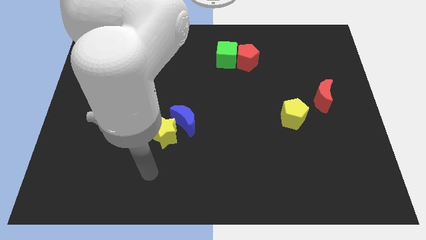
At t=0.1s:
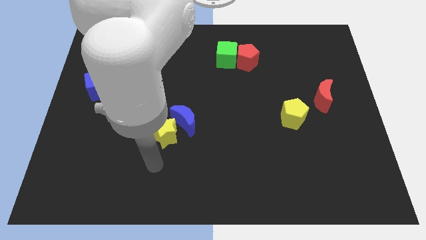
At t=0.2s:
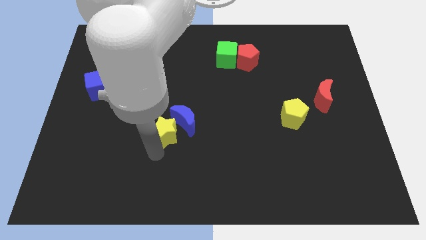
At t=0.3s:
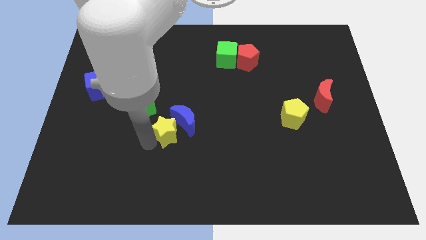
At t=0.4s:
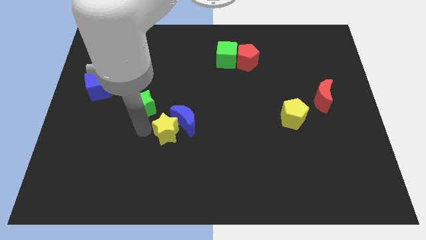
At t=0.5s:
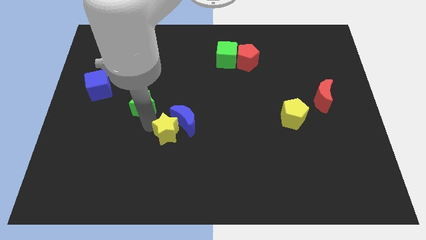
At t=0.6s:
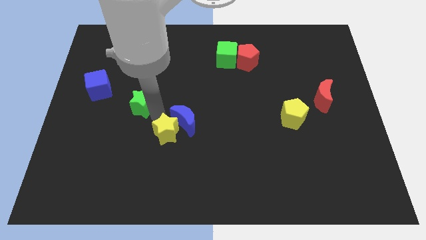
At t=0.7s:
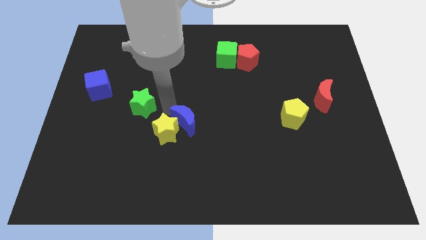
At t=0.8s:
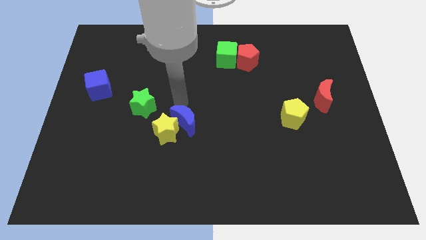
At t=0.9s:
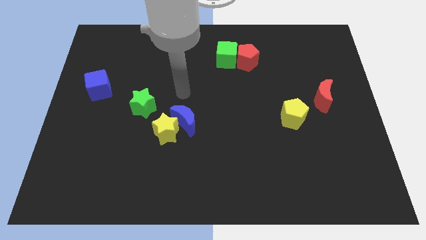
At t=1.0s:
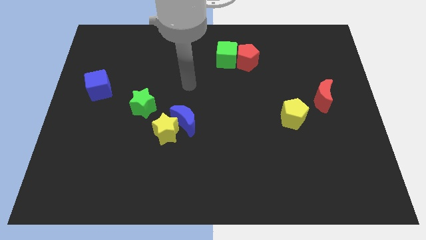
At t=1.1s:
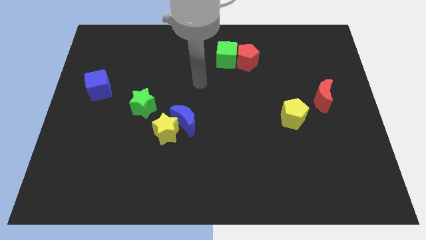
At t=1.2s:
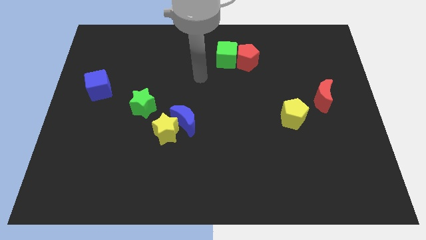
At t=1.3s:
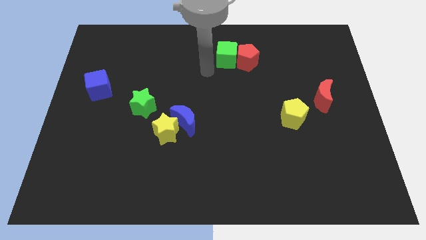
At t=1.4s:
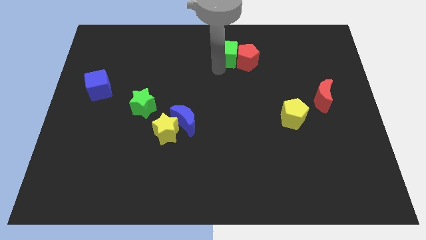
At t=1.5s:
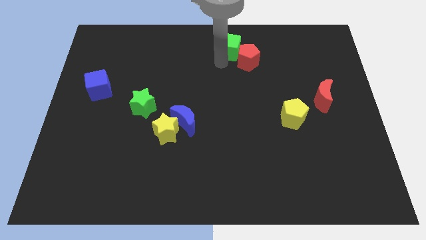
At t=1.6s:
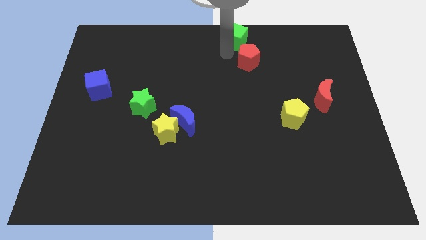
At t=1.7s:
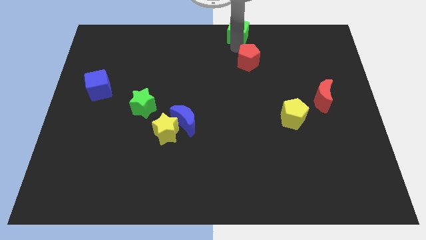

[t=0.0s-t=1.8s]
separate the red pentagon from the green cube

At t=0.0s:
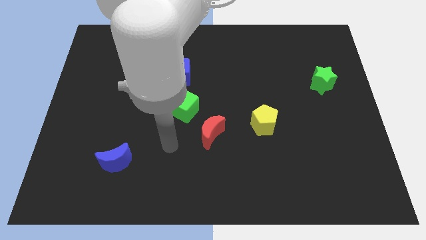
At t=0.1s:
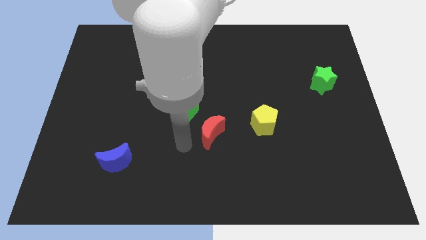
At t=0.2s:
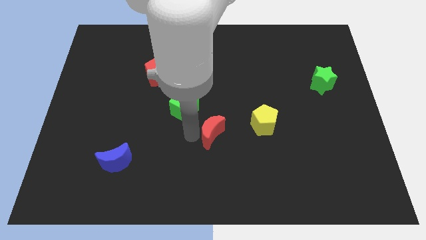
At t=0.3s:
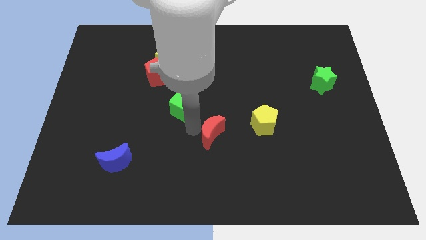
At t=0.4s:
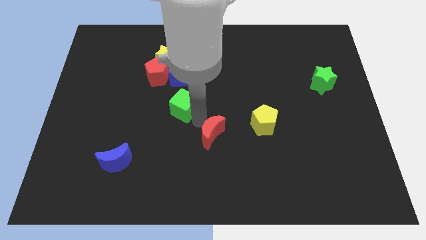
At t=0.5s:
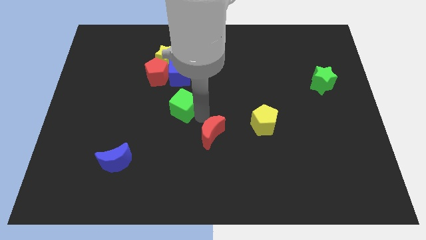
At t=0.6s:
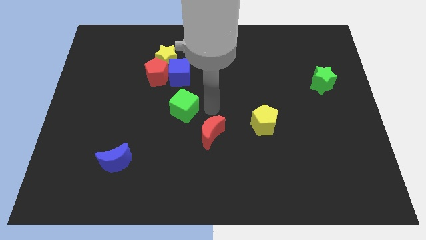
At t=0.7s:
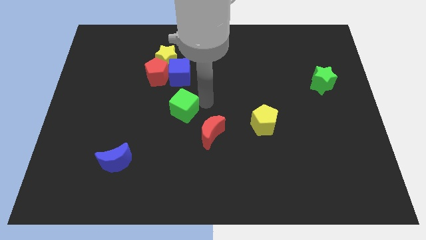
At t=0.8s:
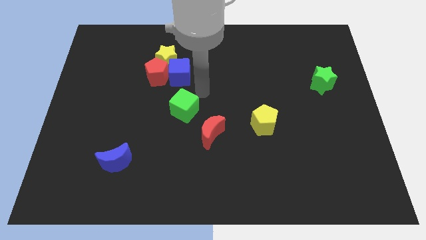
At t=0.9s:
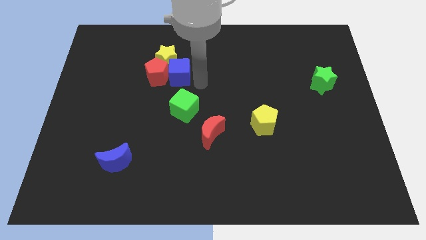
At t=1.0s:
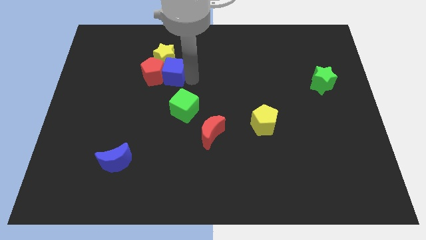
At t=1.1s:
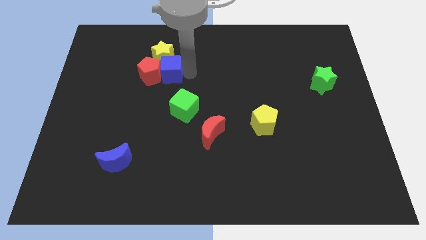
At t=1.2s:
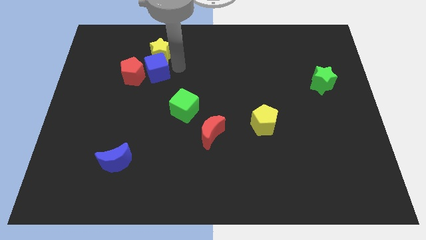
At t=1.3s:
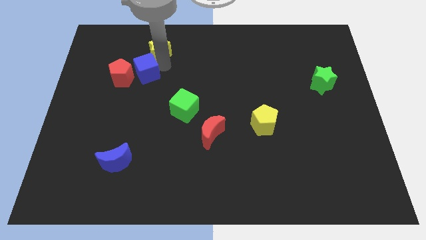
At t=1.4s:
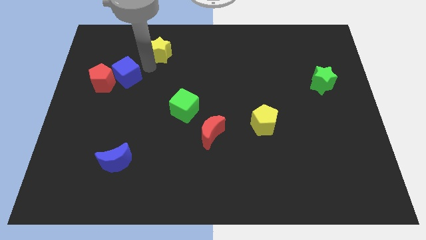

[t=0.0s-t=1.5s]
move the red pentagon away from the yellow star and blue cube

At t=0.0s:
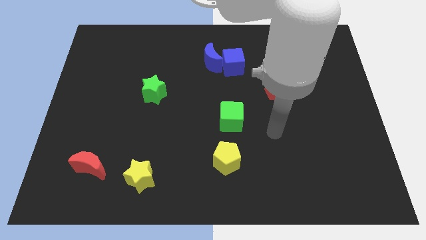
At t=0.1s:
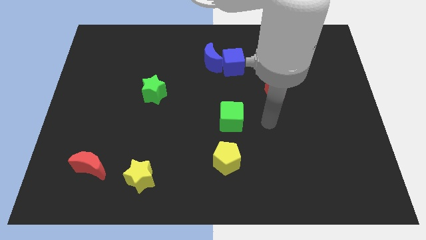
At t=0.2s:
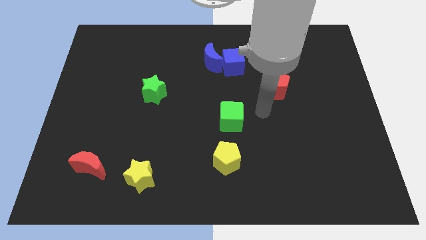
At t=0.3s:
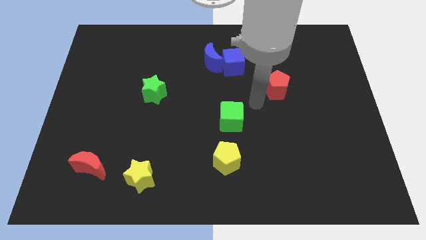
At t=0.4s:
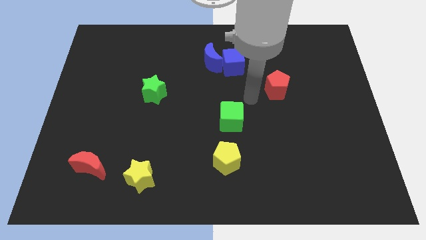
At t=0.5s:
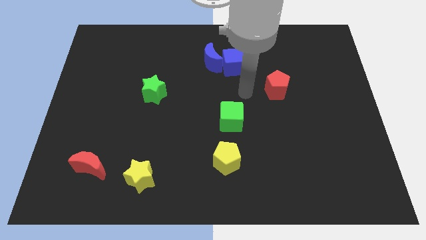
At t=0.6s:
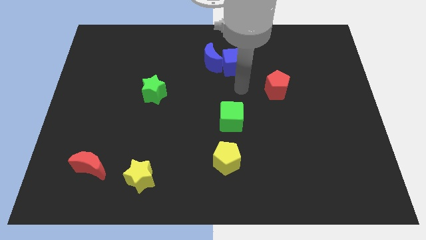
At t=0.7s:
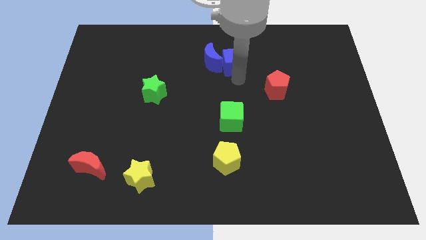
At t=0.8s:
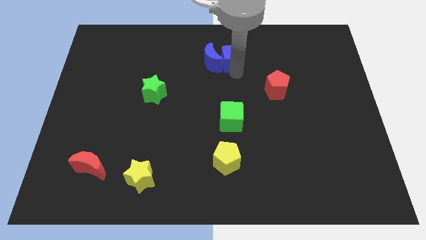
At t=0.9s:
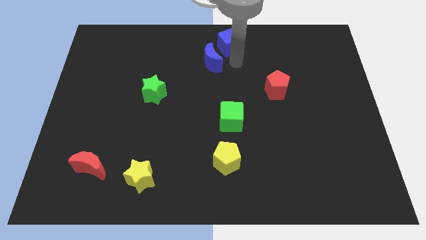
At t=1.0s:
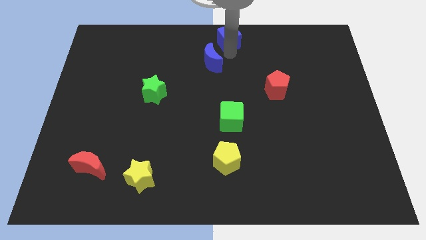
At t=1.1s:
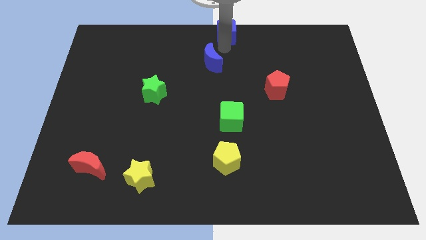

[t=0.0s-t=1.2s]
separate the blue moon from the blue cube

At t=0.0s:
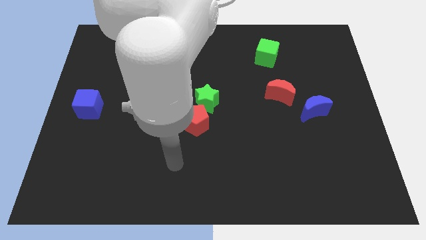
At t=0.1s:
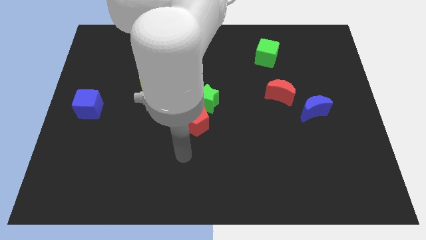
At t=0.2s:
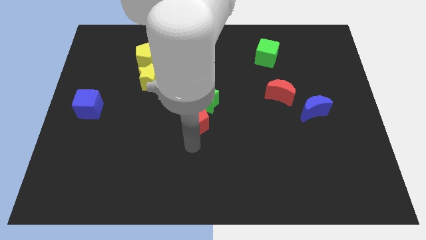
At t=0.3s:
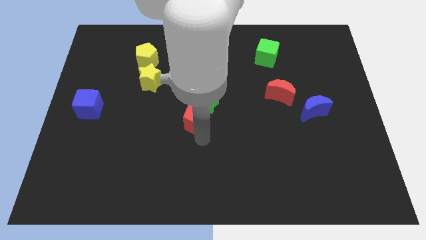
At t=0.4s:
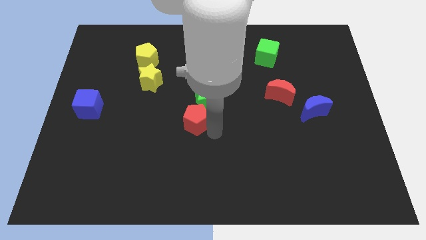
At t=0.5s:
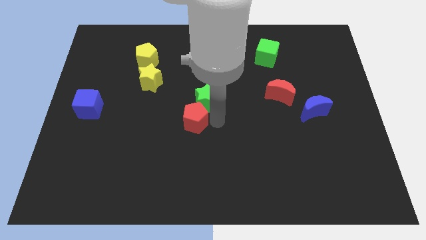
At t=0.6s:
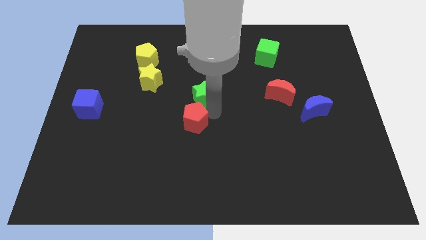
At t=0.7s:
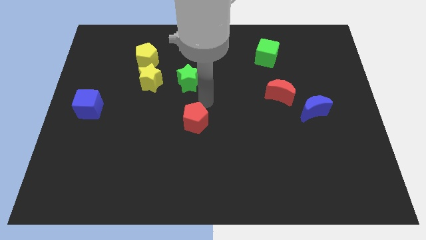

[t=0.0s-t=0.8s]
move the red pentagon away from the green star

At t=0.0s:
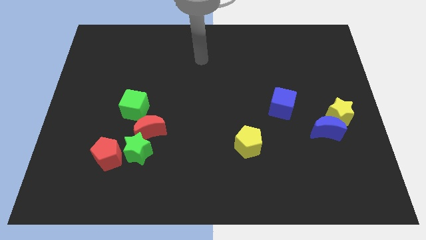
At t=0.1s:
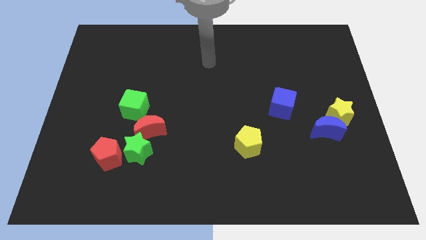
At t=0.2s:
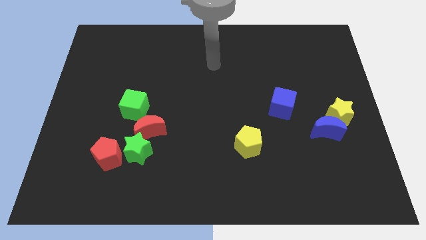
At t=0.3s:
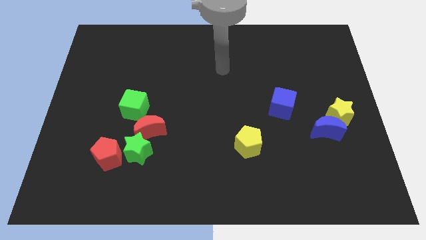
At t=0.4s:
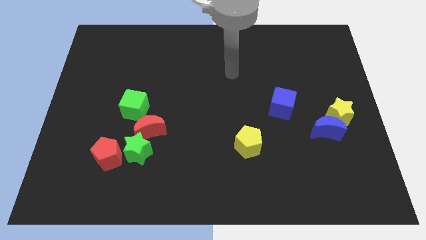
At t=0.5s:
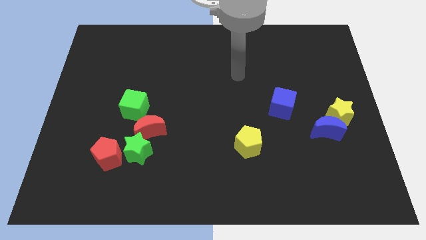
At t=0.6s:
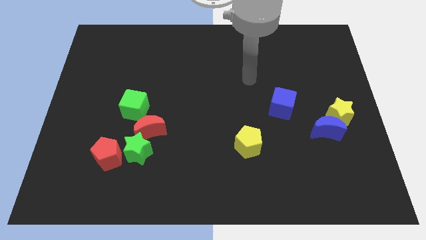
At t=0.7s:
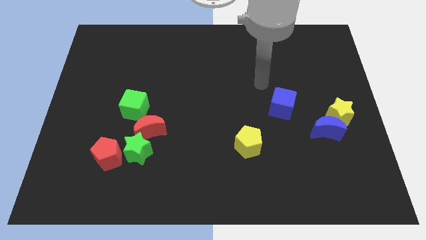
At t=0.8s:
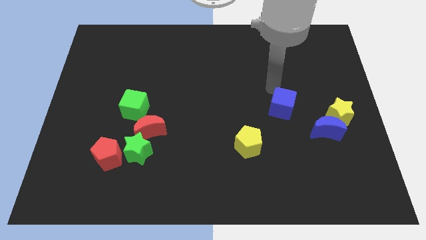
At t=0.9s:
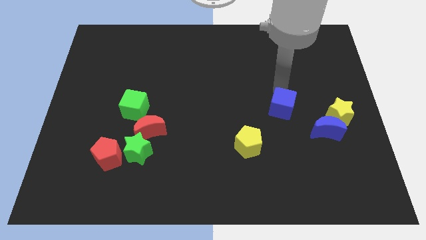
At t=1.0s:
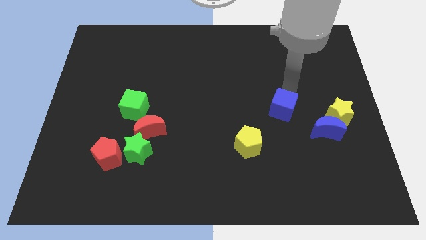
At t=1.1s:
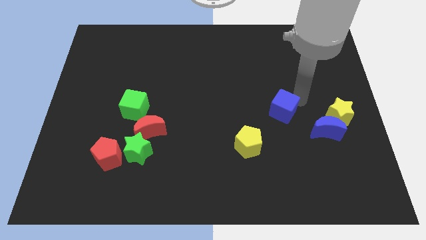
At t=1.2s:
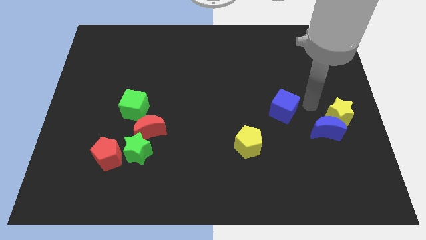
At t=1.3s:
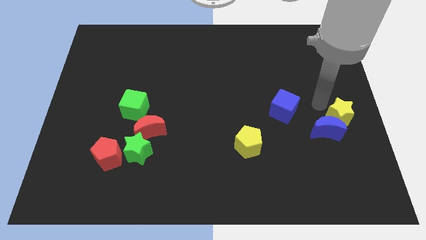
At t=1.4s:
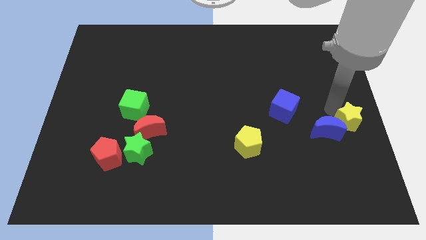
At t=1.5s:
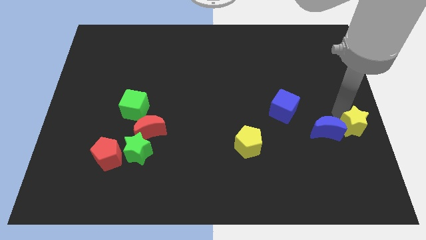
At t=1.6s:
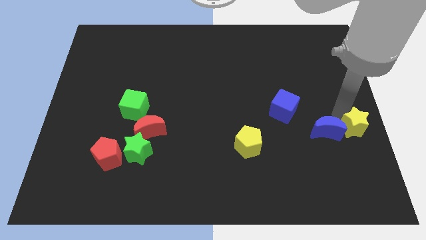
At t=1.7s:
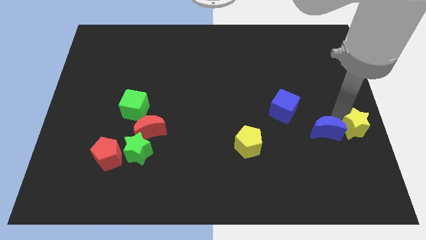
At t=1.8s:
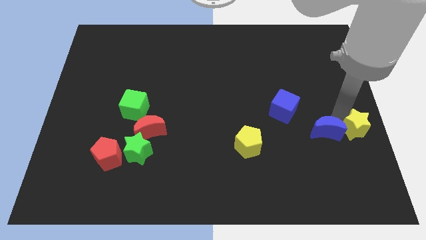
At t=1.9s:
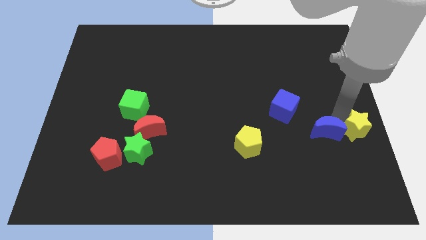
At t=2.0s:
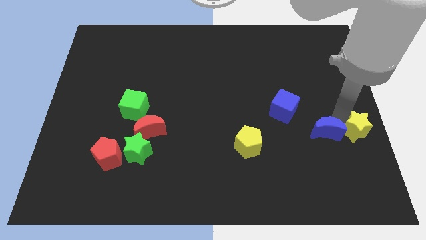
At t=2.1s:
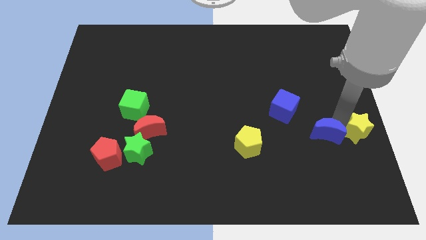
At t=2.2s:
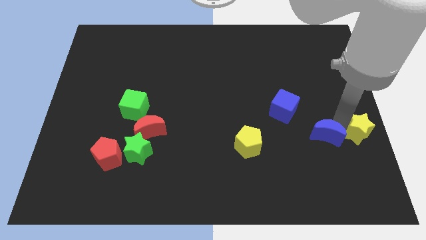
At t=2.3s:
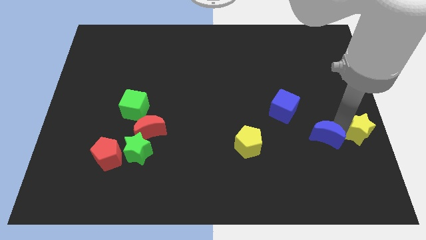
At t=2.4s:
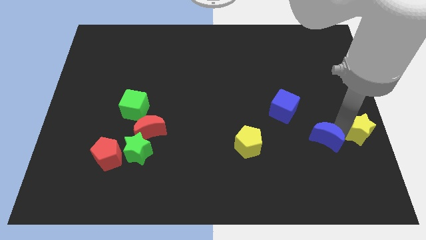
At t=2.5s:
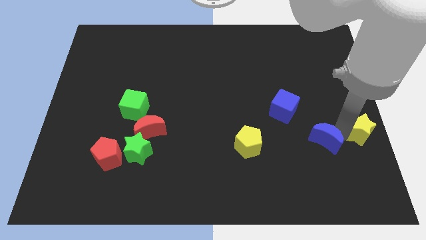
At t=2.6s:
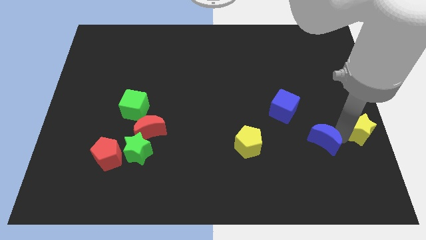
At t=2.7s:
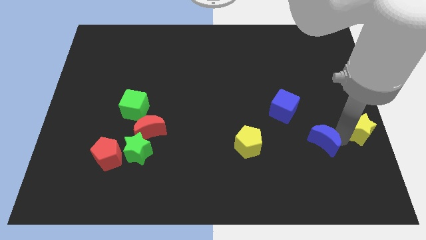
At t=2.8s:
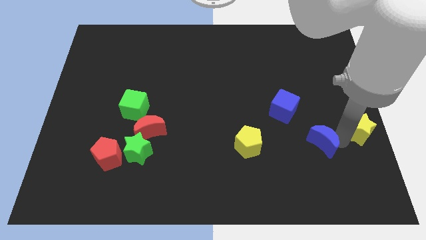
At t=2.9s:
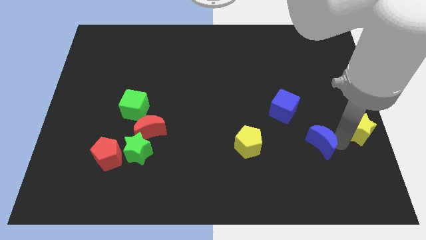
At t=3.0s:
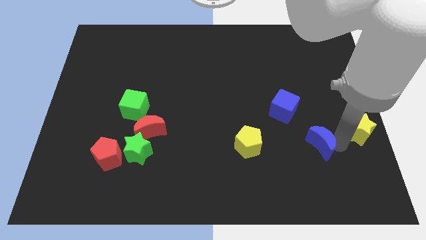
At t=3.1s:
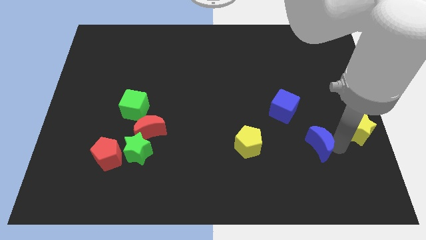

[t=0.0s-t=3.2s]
move the blue moon away from the yellow star

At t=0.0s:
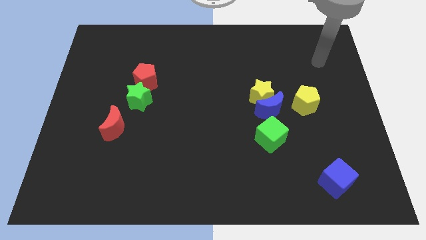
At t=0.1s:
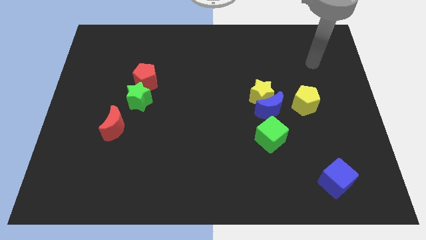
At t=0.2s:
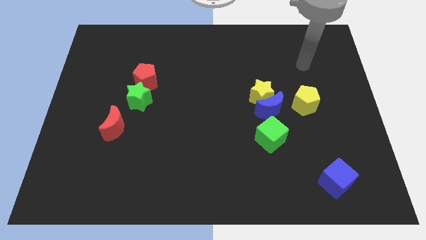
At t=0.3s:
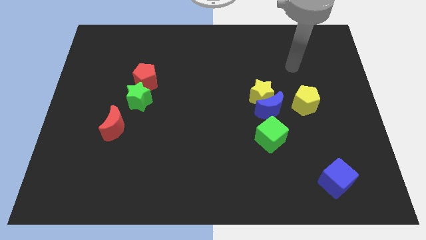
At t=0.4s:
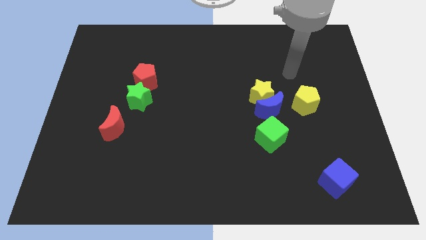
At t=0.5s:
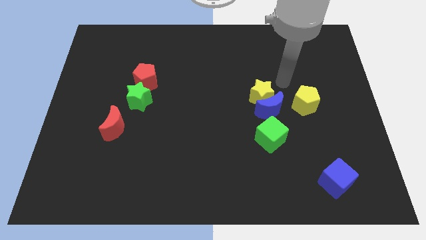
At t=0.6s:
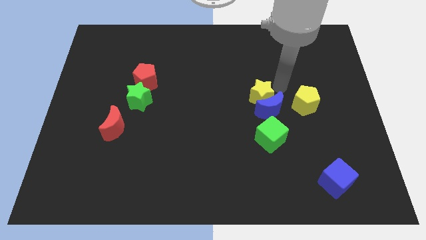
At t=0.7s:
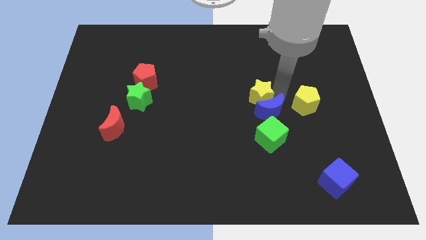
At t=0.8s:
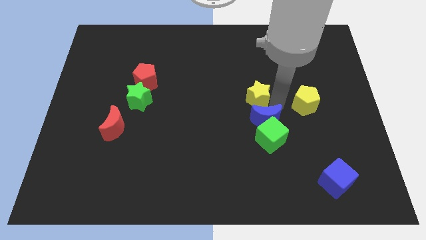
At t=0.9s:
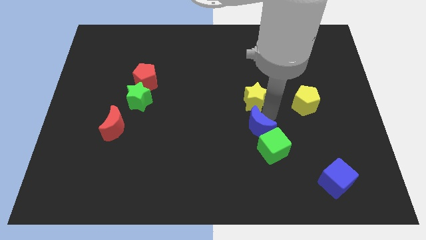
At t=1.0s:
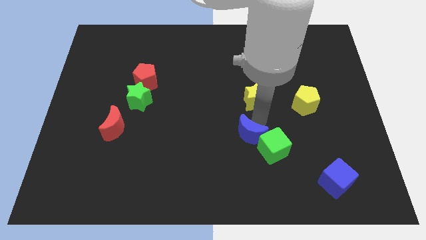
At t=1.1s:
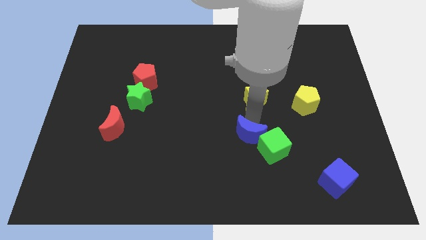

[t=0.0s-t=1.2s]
pull the yellow star apart from the blue moon
